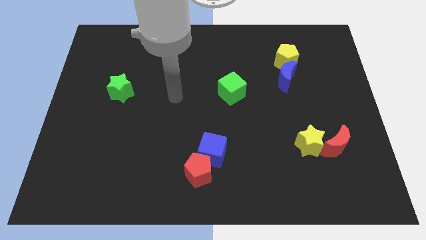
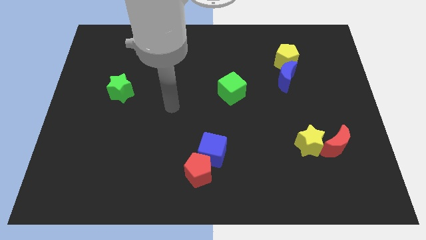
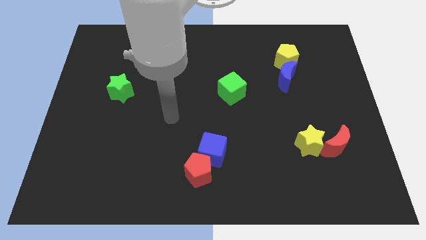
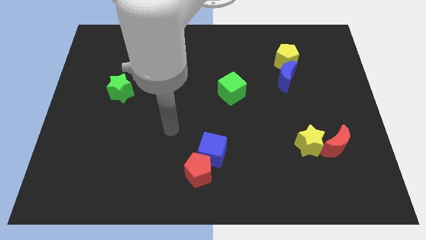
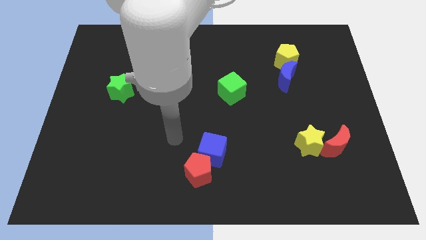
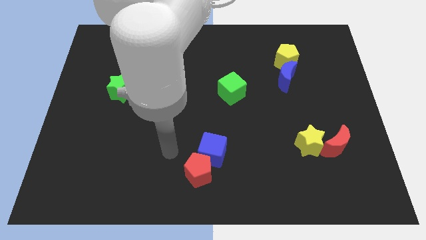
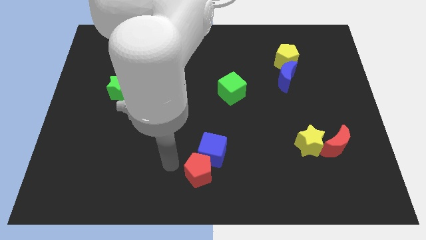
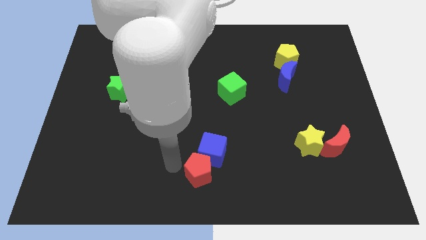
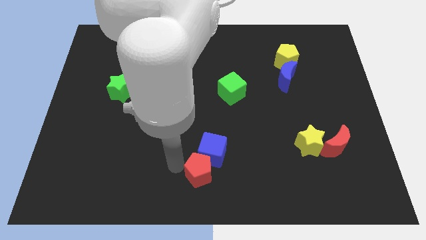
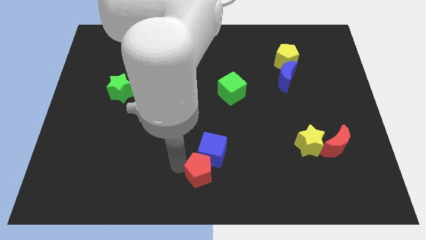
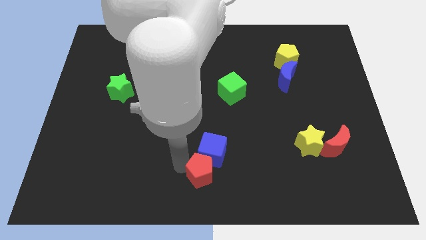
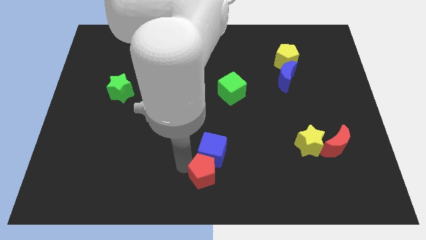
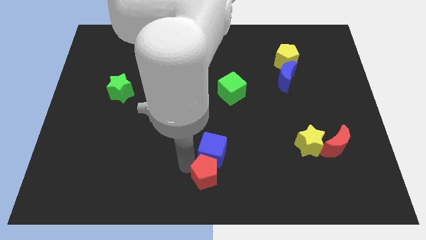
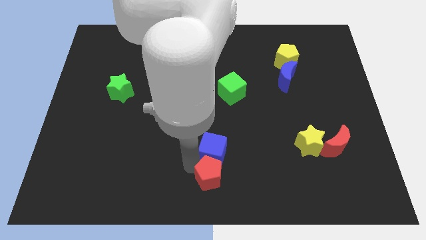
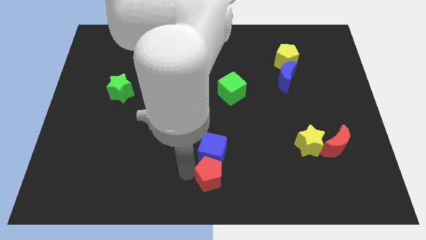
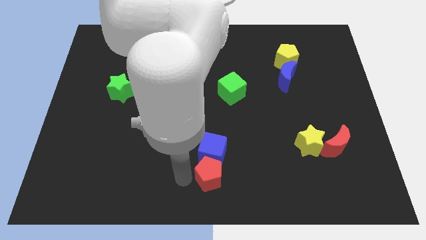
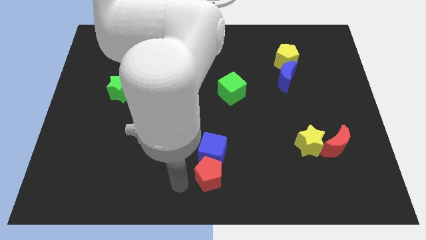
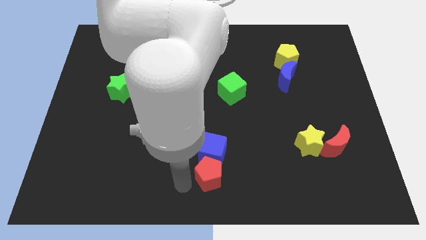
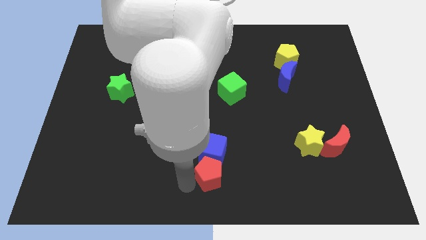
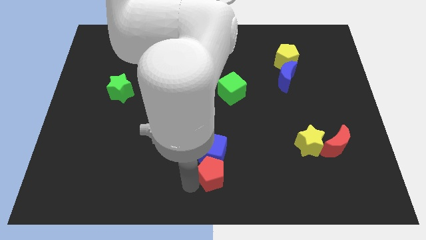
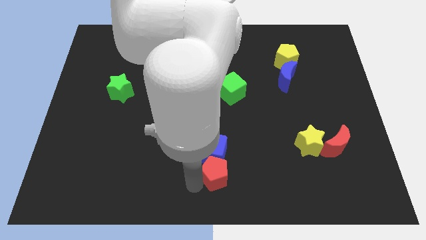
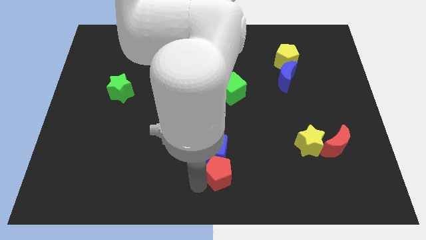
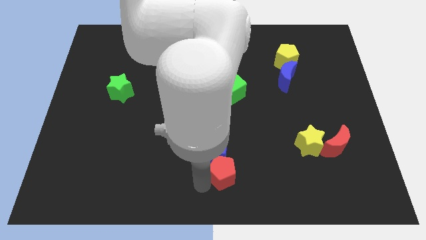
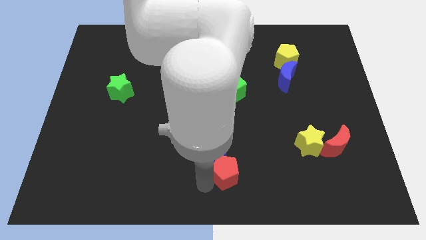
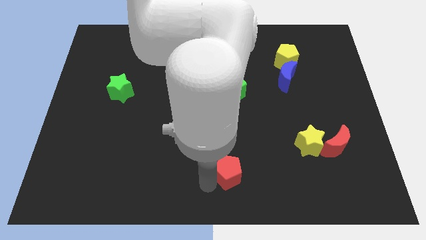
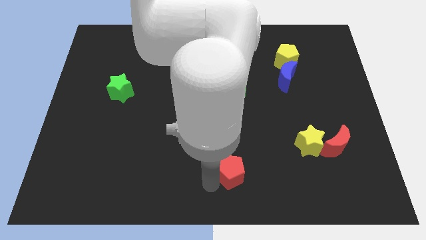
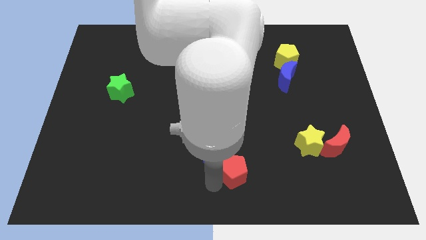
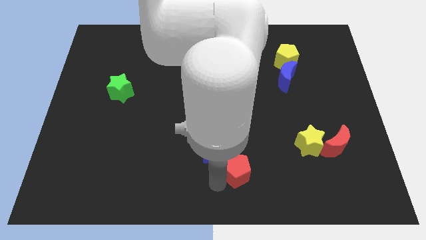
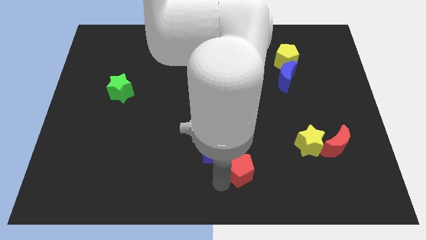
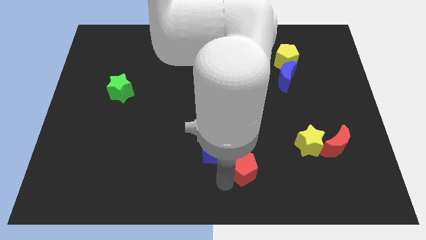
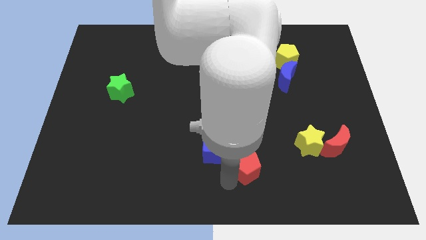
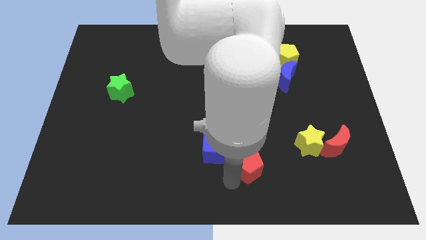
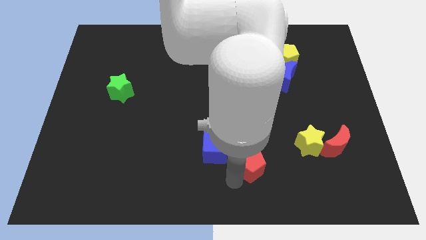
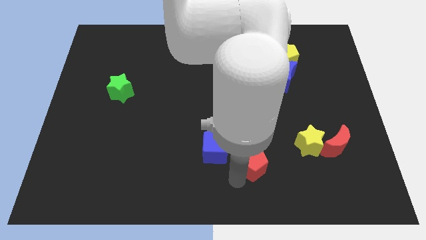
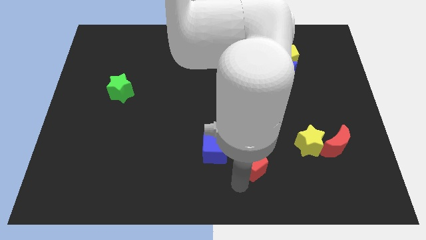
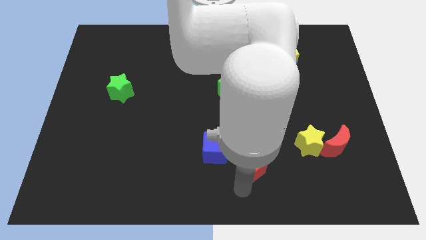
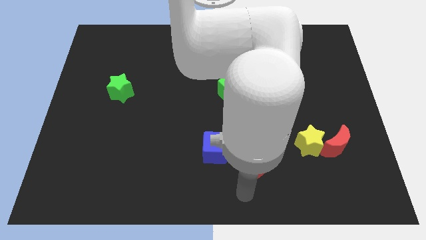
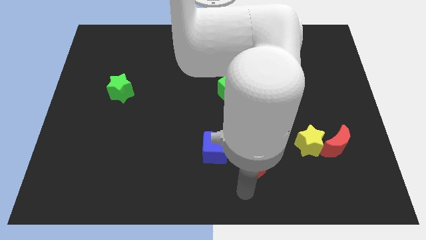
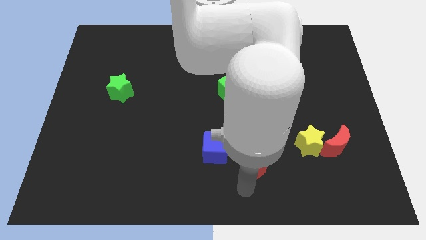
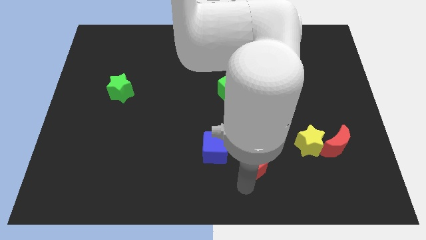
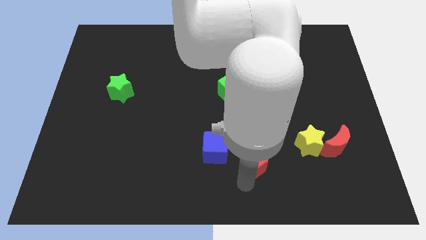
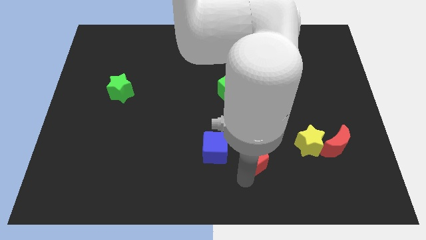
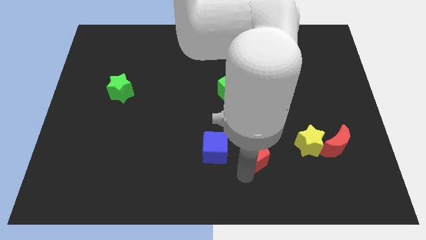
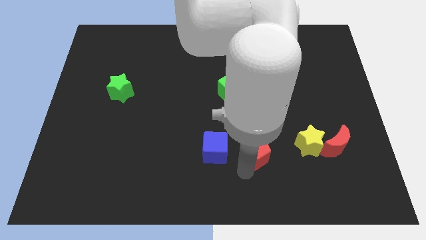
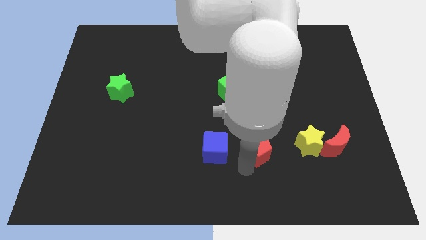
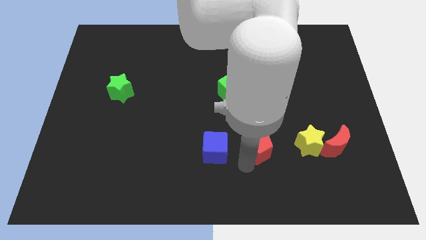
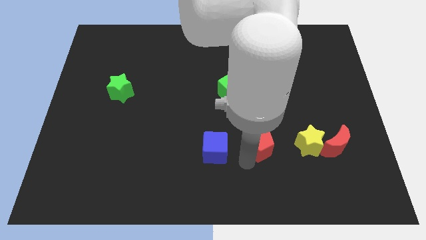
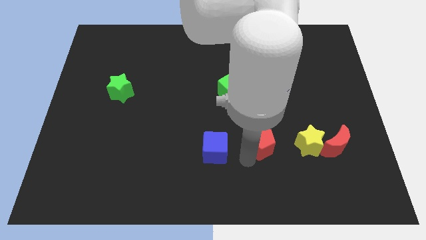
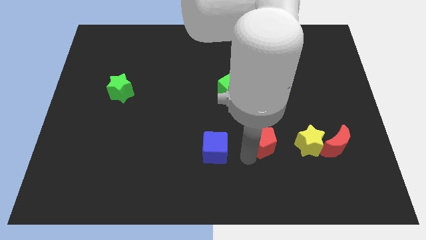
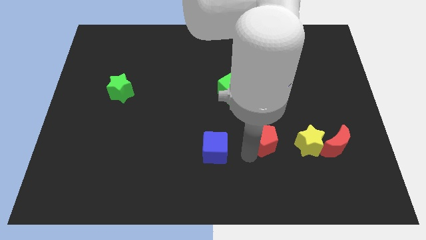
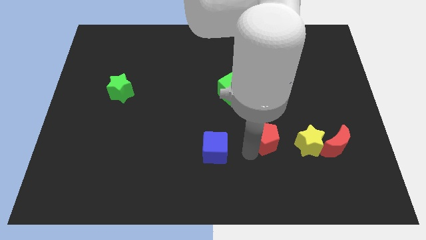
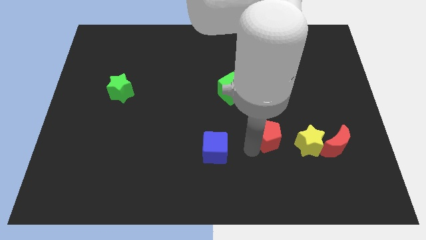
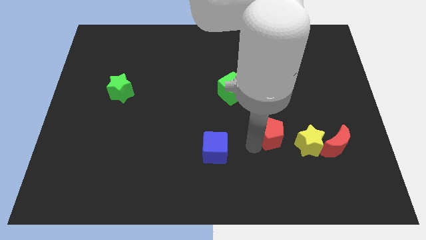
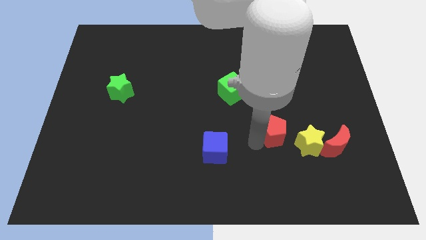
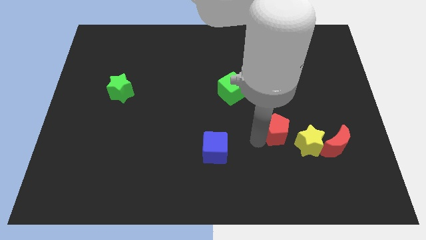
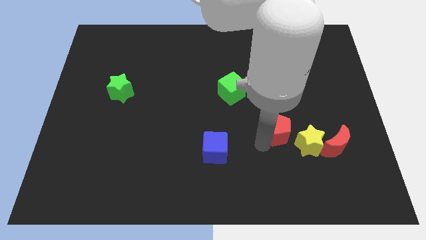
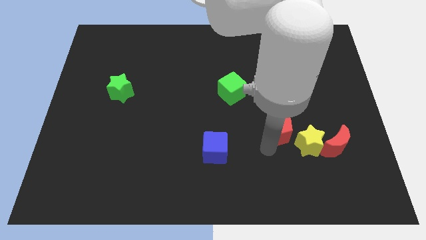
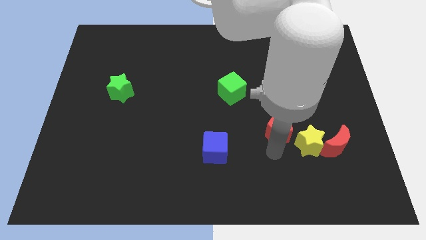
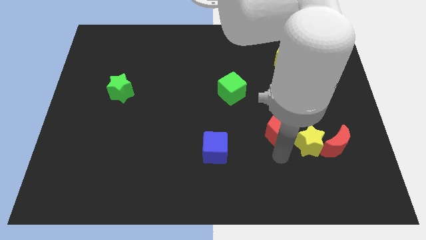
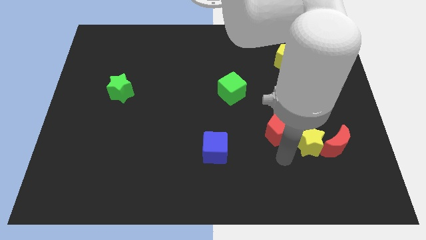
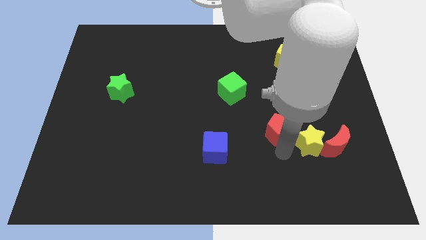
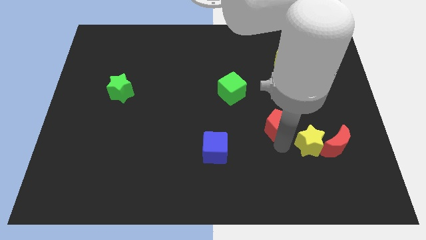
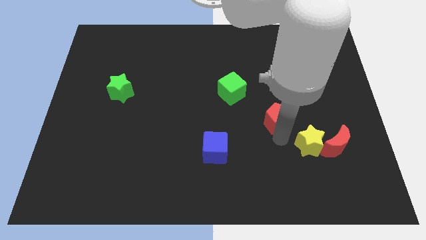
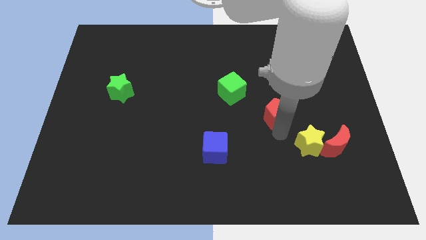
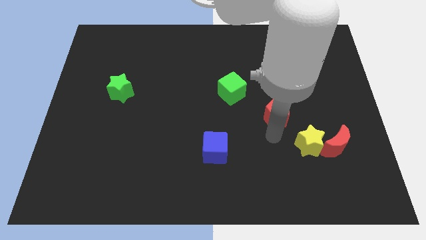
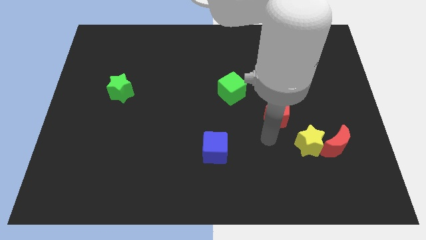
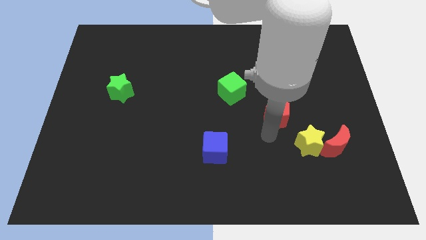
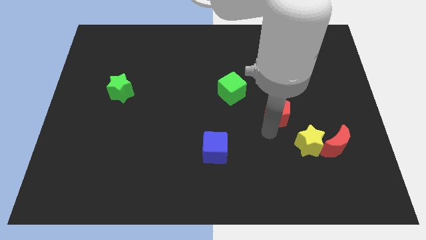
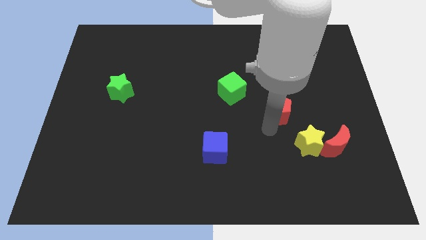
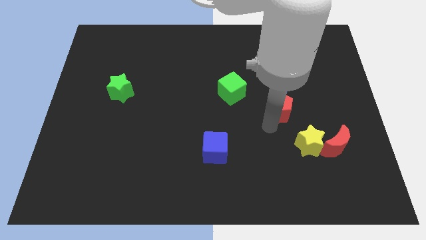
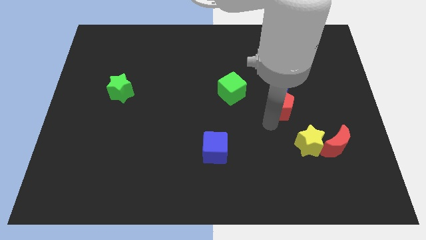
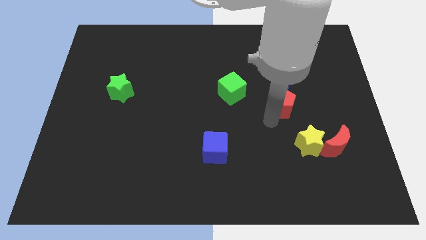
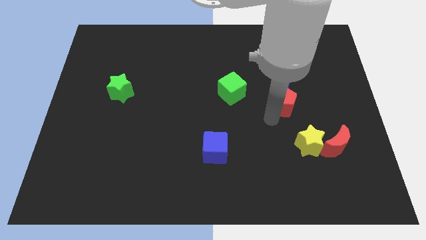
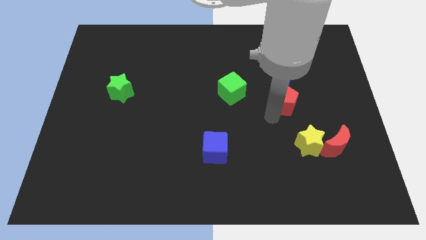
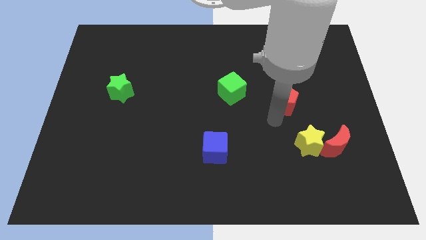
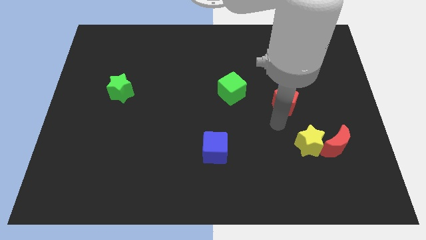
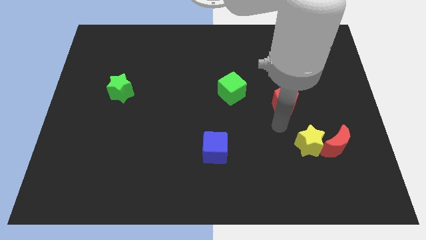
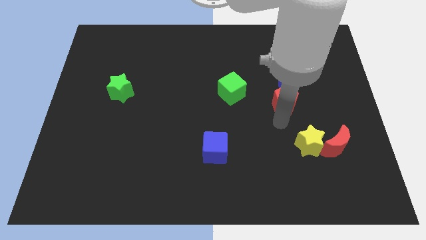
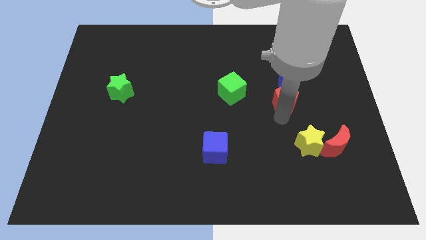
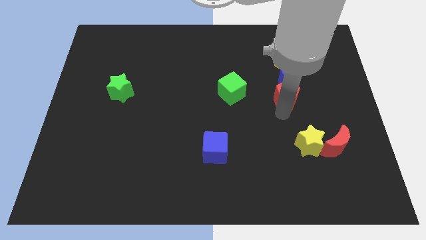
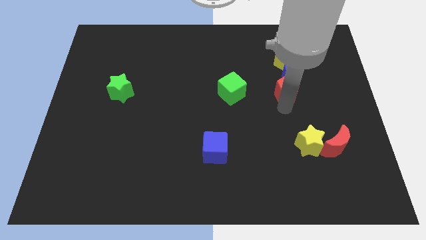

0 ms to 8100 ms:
put the red pentagon towards the blue moon
